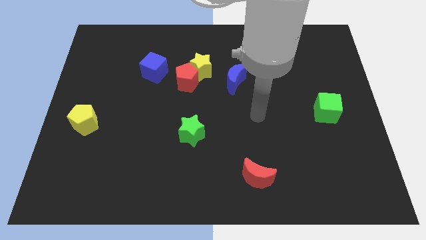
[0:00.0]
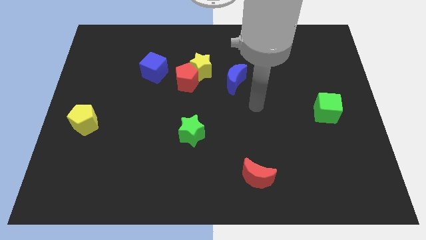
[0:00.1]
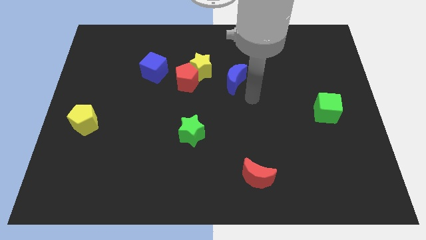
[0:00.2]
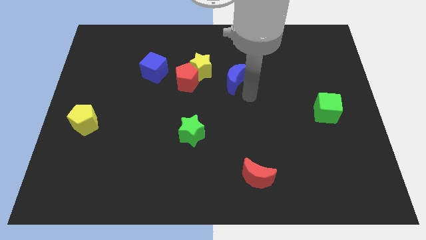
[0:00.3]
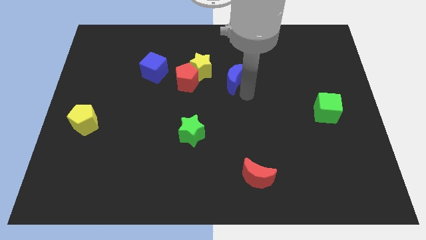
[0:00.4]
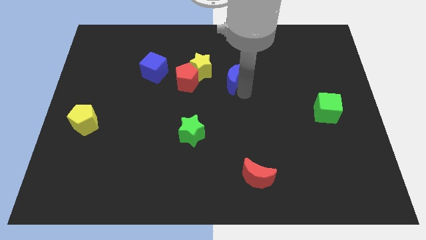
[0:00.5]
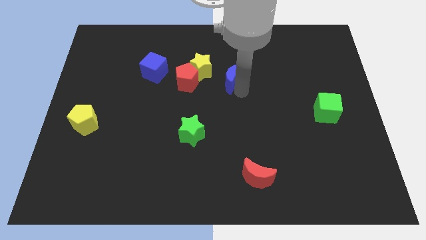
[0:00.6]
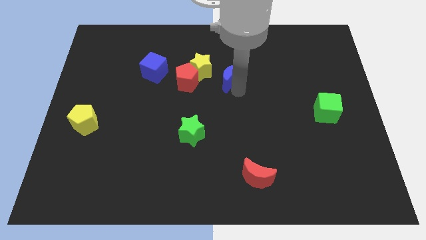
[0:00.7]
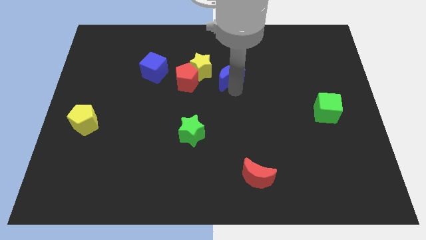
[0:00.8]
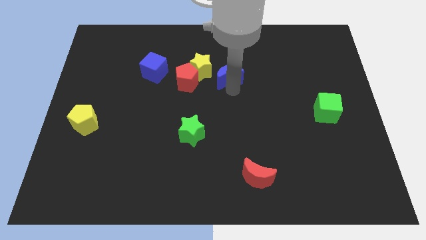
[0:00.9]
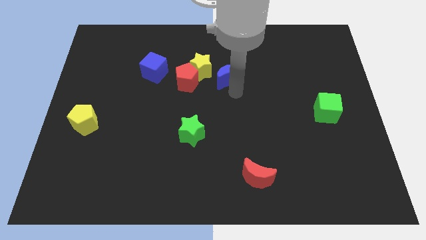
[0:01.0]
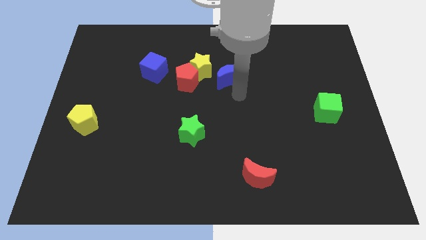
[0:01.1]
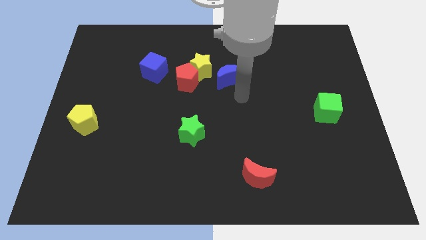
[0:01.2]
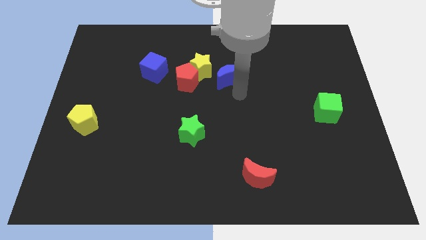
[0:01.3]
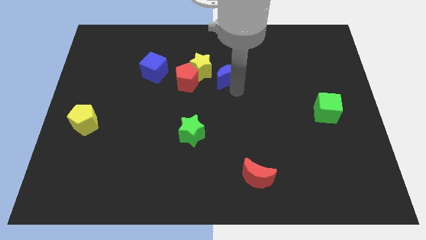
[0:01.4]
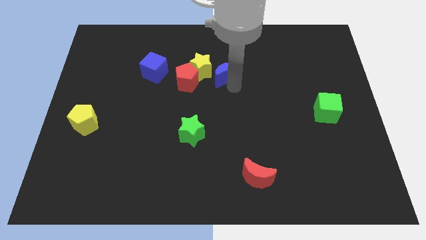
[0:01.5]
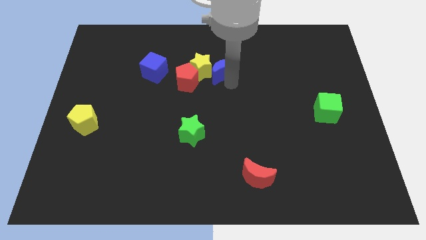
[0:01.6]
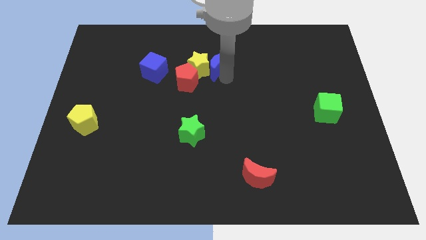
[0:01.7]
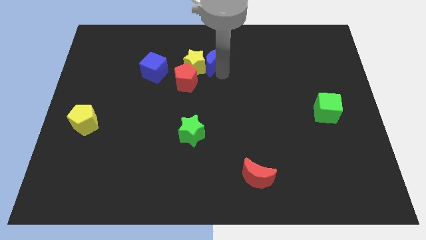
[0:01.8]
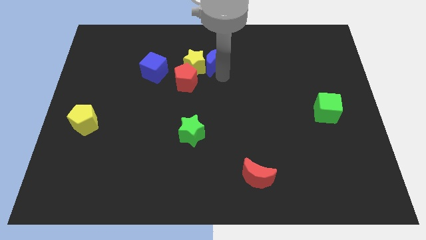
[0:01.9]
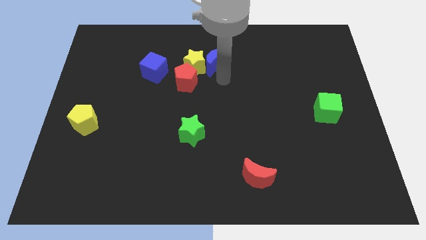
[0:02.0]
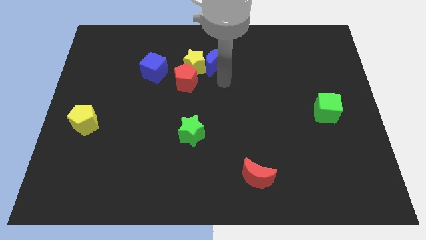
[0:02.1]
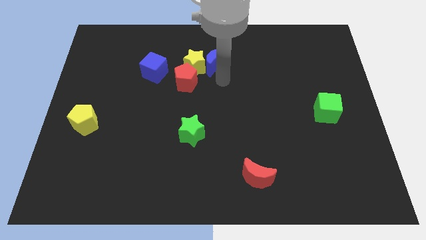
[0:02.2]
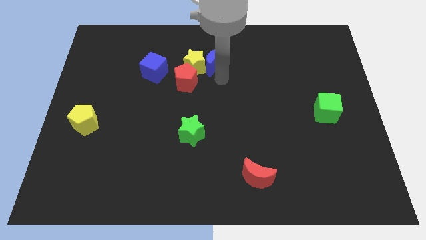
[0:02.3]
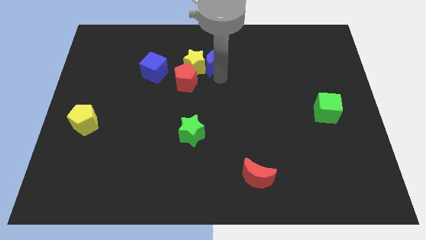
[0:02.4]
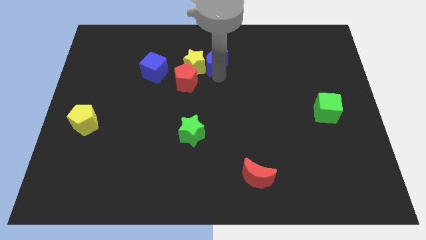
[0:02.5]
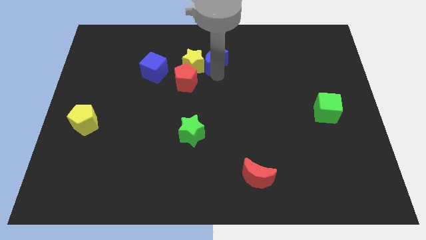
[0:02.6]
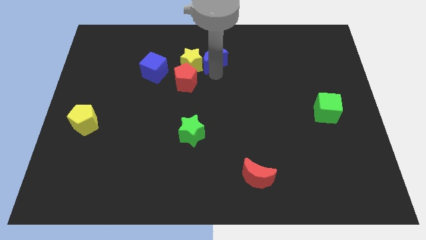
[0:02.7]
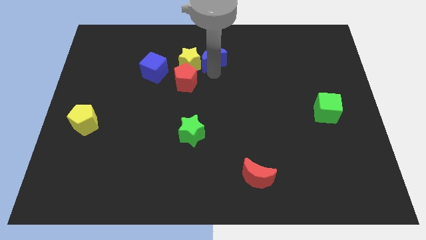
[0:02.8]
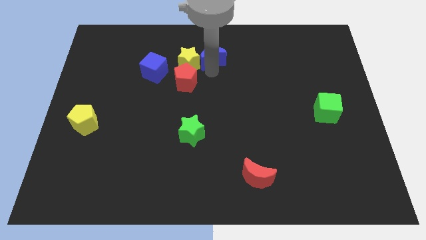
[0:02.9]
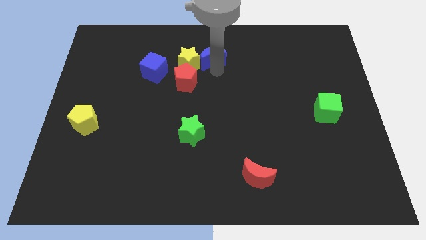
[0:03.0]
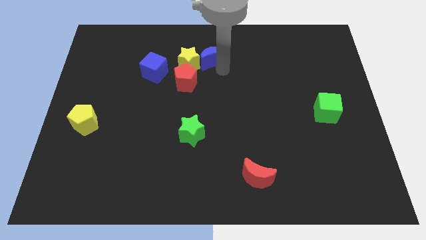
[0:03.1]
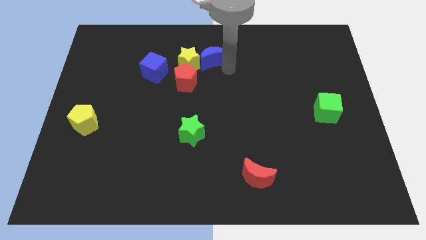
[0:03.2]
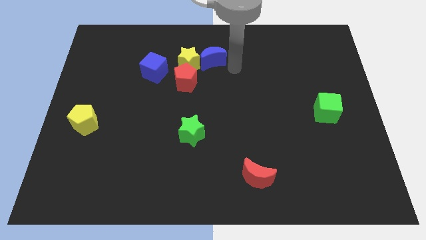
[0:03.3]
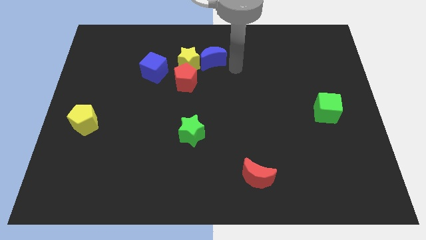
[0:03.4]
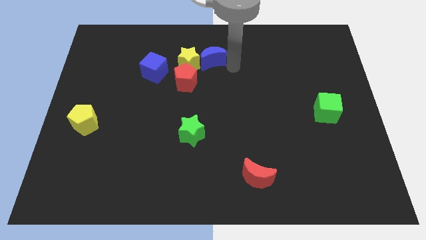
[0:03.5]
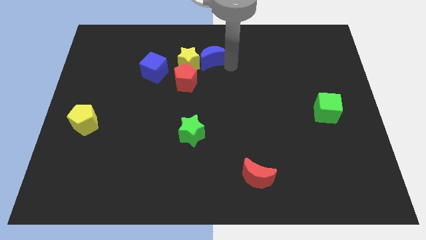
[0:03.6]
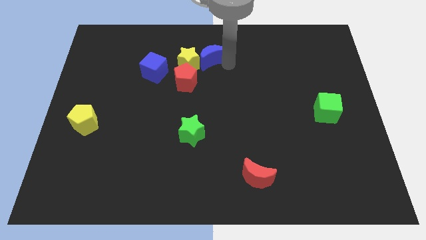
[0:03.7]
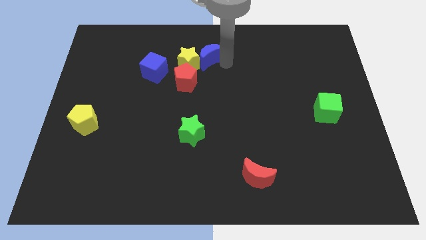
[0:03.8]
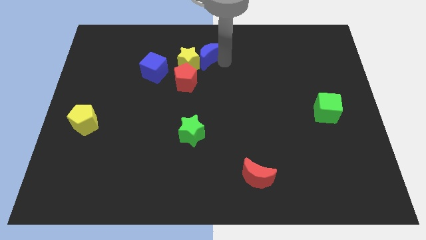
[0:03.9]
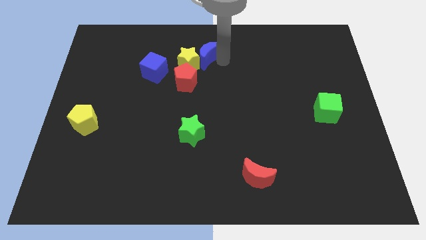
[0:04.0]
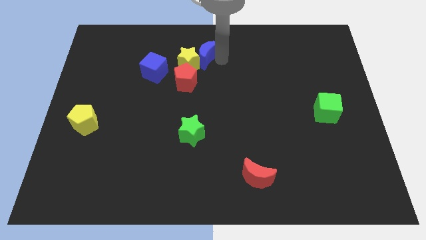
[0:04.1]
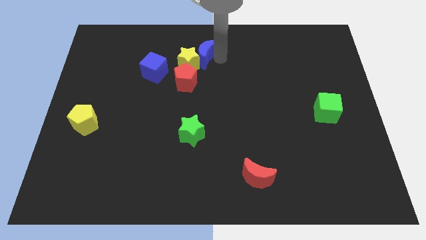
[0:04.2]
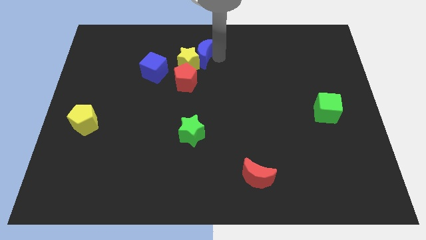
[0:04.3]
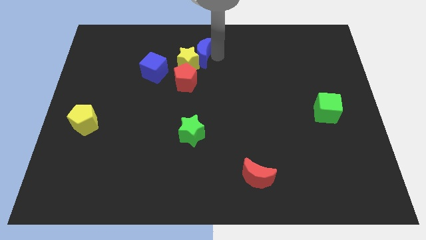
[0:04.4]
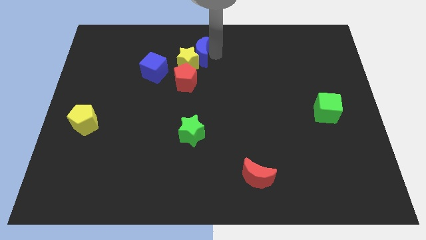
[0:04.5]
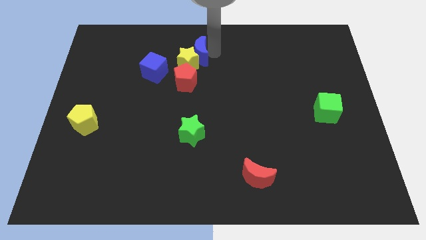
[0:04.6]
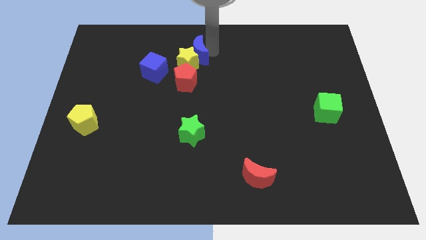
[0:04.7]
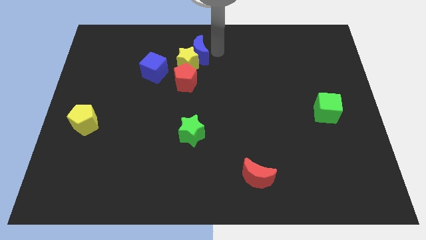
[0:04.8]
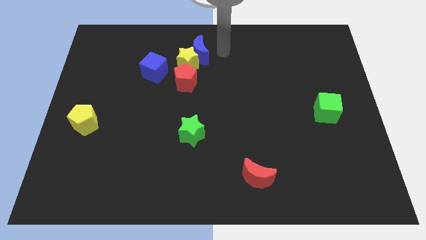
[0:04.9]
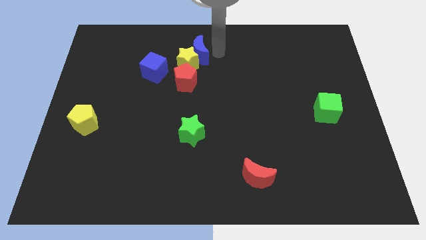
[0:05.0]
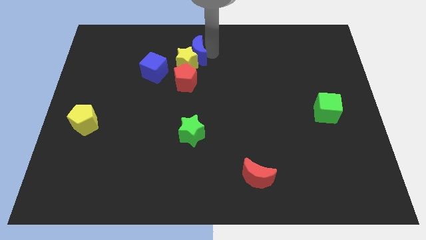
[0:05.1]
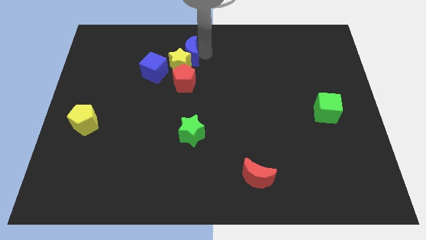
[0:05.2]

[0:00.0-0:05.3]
slide the blue moon diagonally up and to the right of the blue cube

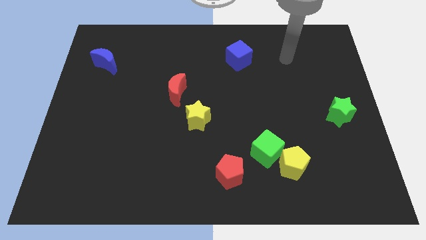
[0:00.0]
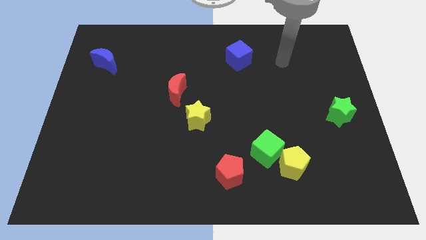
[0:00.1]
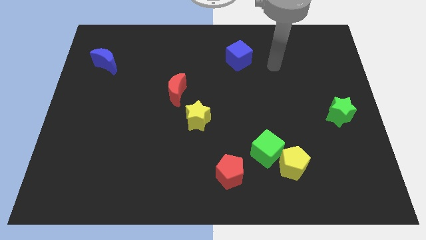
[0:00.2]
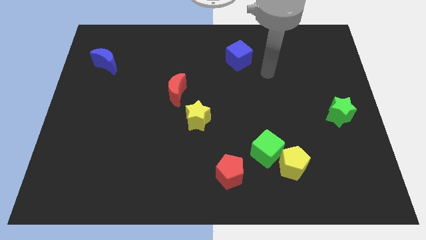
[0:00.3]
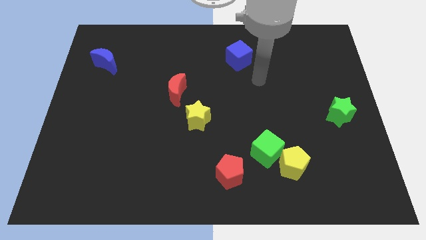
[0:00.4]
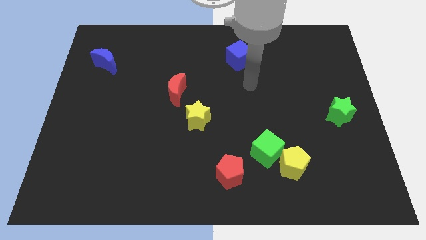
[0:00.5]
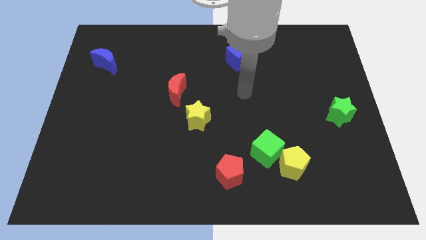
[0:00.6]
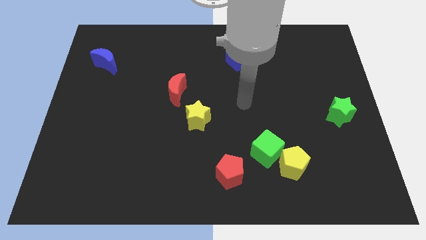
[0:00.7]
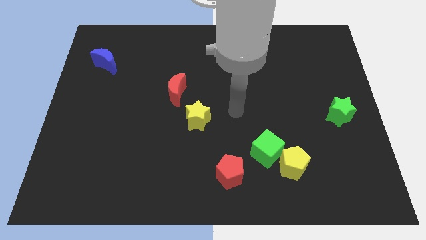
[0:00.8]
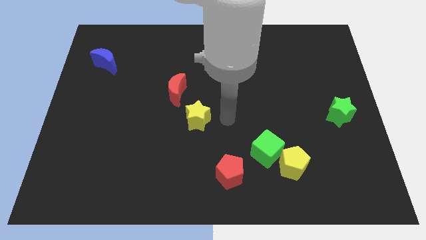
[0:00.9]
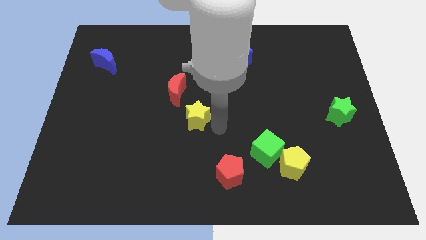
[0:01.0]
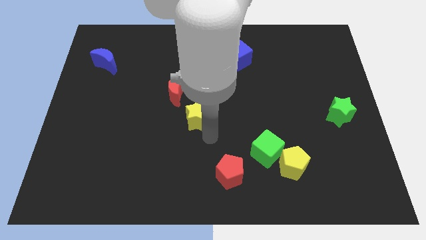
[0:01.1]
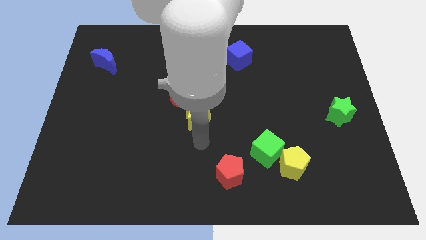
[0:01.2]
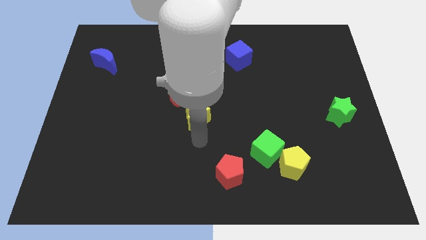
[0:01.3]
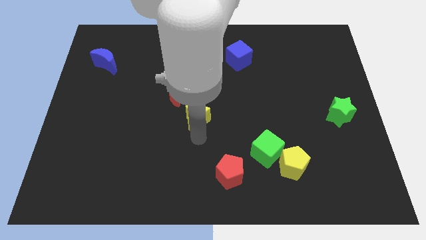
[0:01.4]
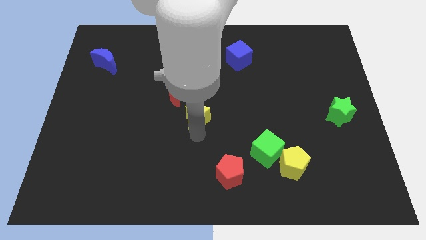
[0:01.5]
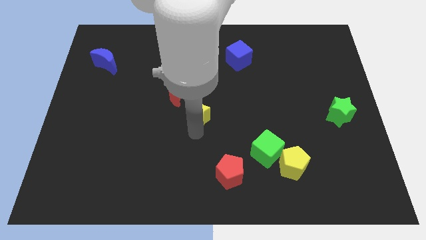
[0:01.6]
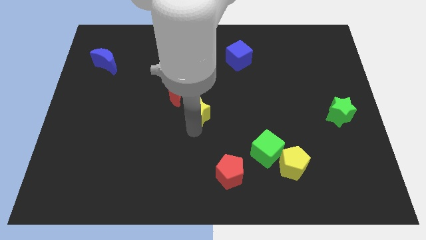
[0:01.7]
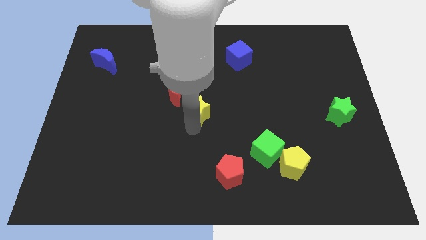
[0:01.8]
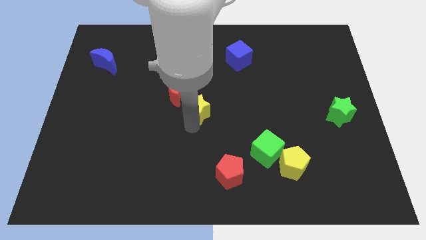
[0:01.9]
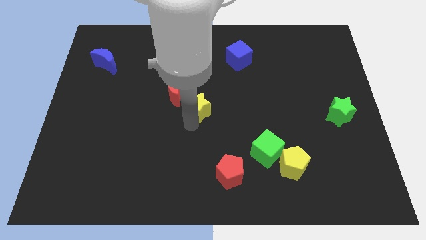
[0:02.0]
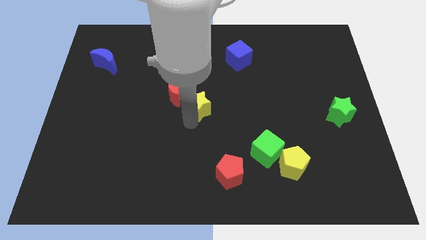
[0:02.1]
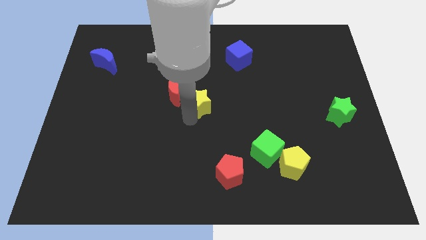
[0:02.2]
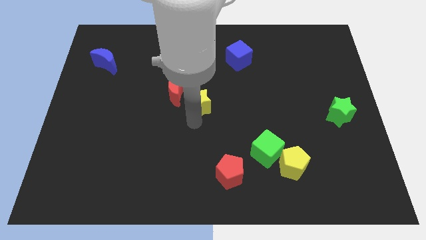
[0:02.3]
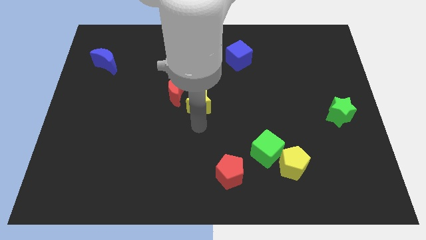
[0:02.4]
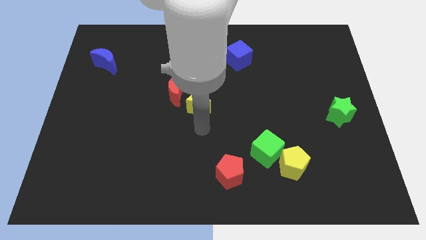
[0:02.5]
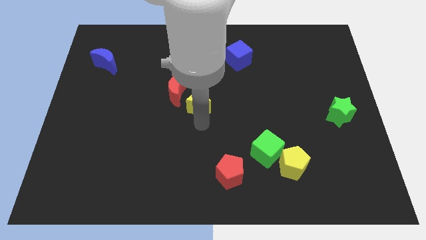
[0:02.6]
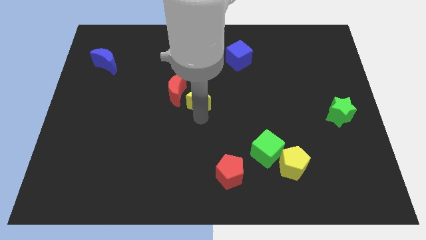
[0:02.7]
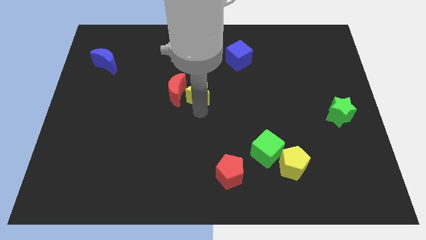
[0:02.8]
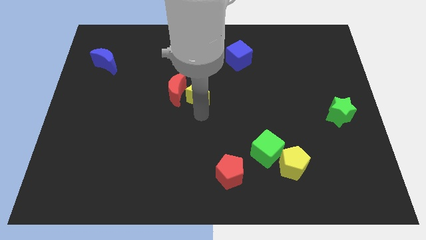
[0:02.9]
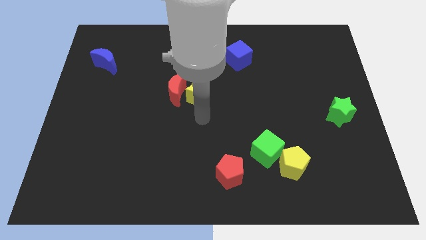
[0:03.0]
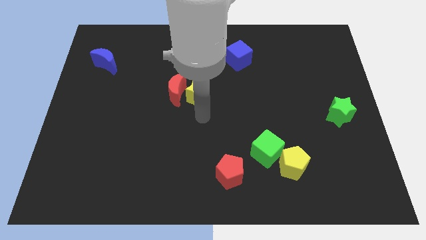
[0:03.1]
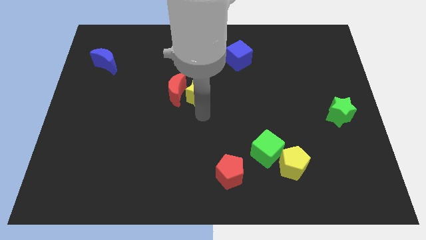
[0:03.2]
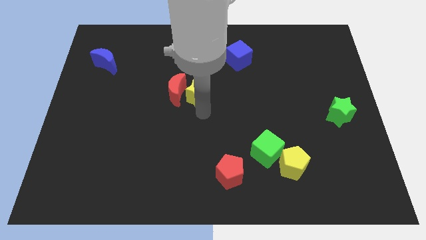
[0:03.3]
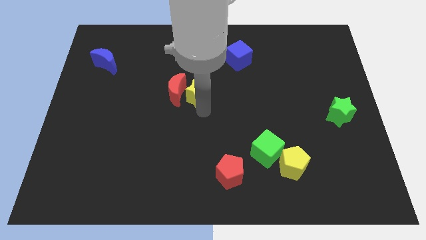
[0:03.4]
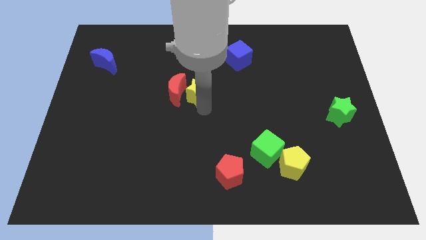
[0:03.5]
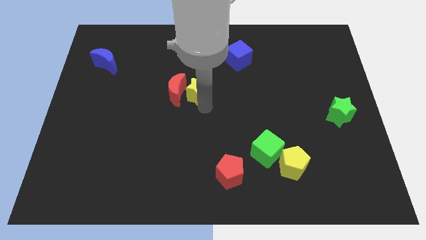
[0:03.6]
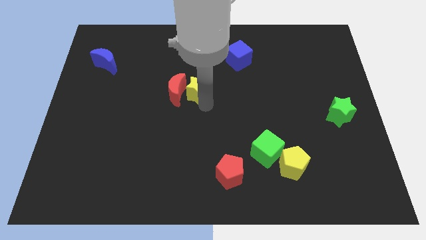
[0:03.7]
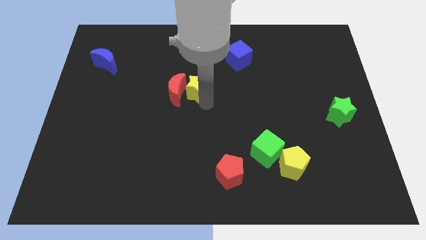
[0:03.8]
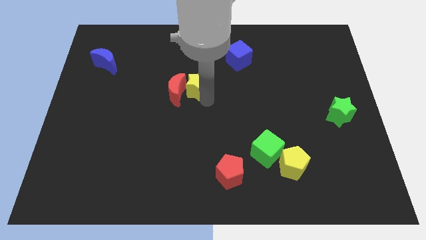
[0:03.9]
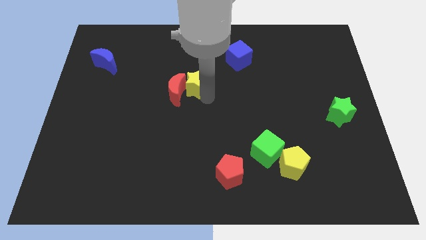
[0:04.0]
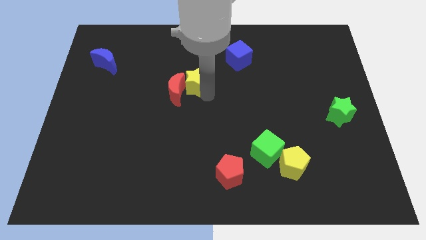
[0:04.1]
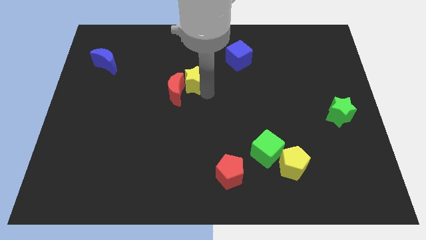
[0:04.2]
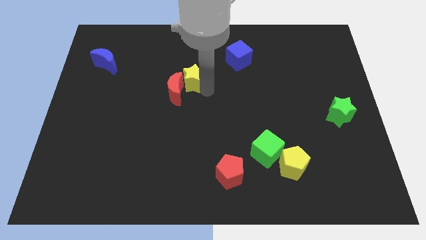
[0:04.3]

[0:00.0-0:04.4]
move the yellow star to the top side of the red moon
